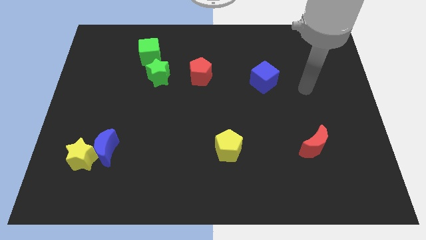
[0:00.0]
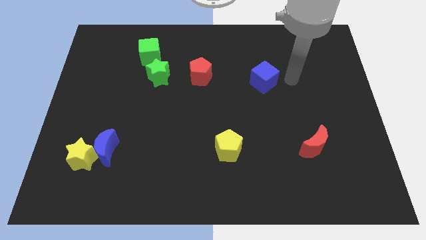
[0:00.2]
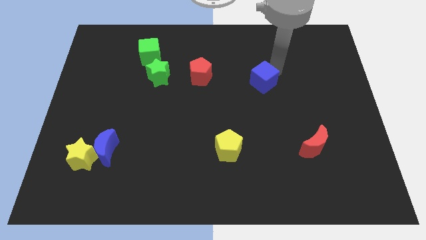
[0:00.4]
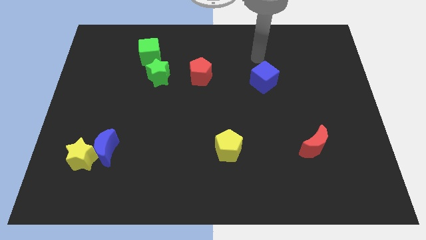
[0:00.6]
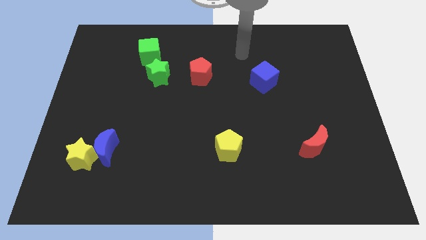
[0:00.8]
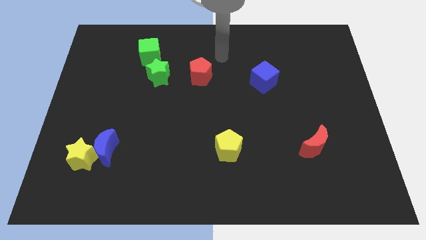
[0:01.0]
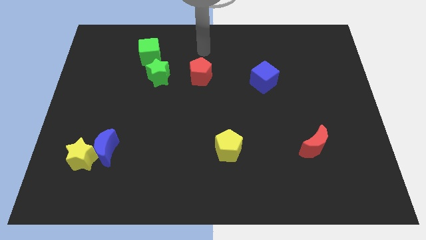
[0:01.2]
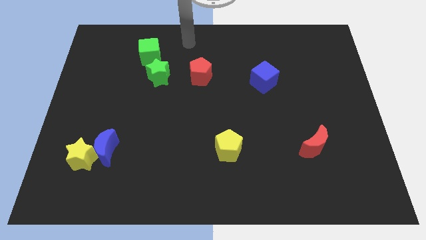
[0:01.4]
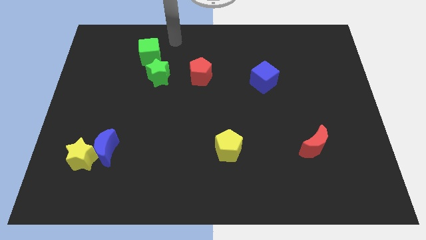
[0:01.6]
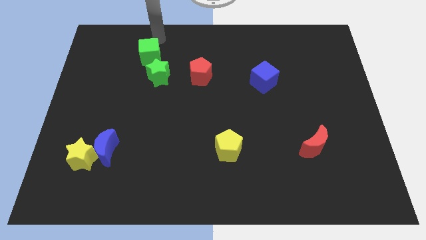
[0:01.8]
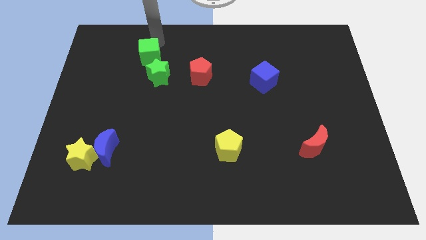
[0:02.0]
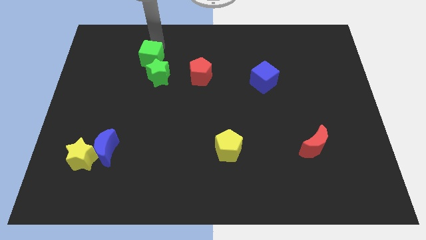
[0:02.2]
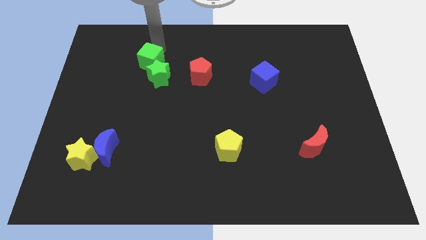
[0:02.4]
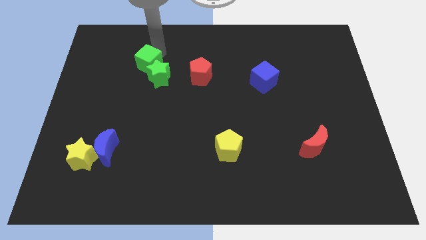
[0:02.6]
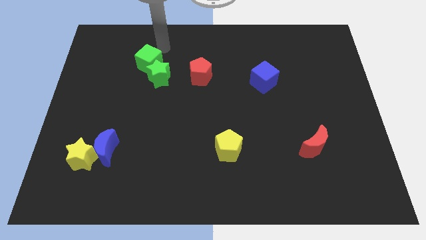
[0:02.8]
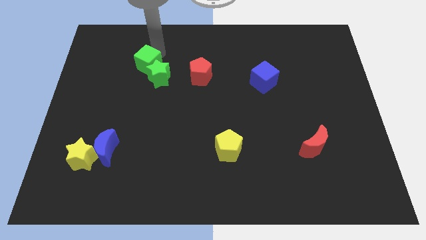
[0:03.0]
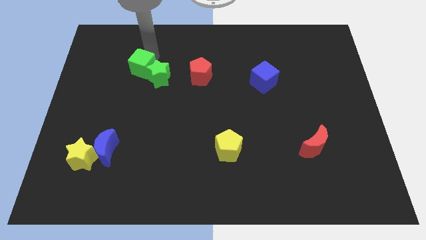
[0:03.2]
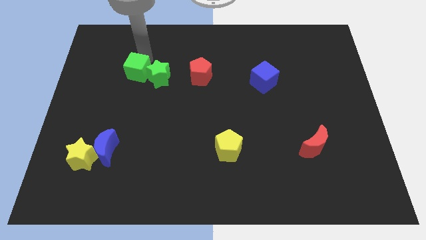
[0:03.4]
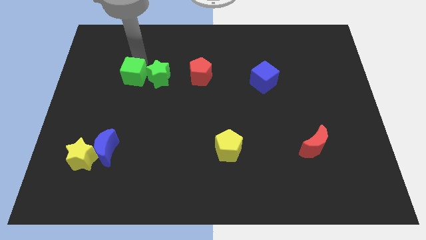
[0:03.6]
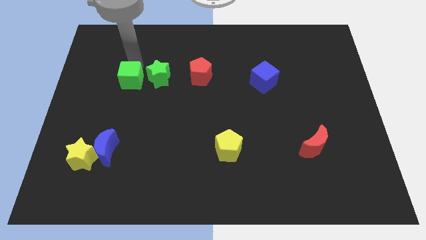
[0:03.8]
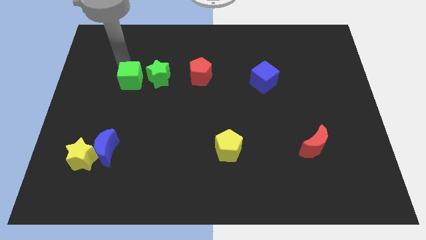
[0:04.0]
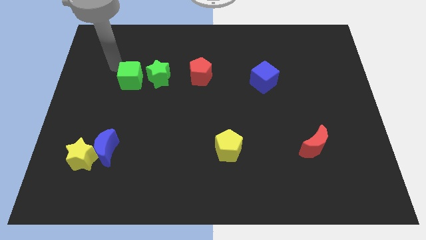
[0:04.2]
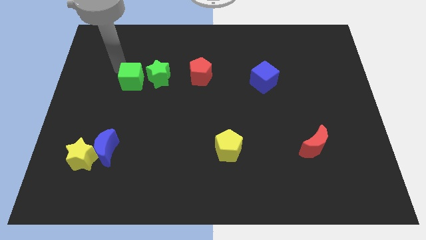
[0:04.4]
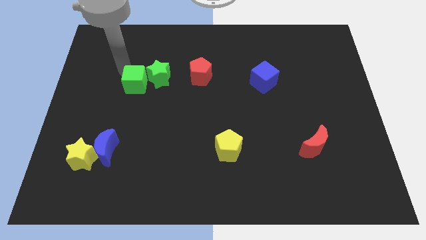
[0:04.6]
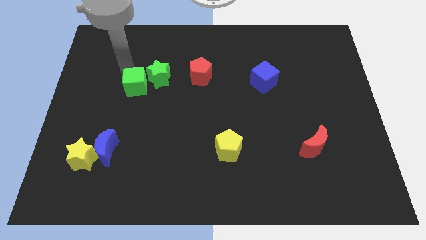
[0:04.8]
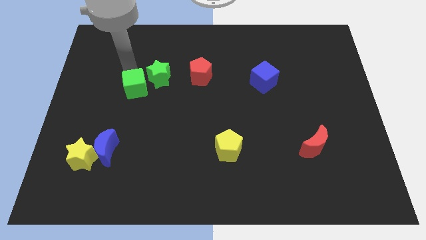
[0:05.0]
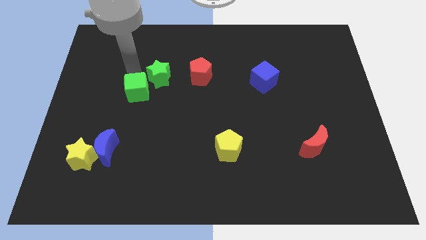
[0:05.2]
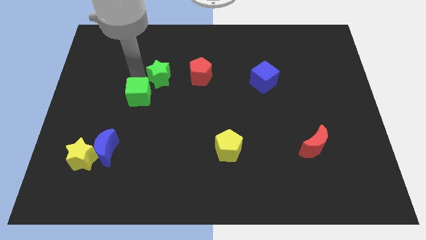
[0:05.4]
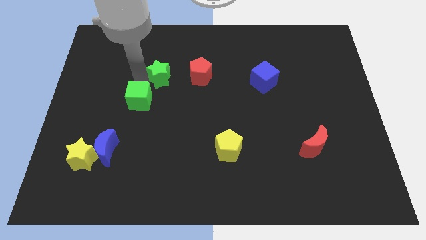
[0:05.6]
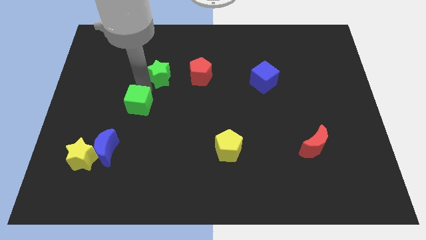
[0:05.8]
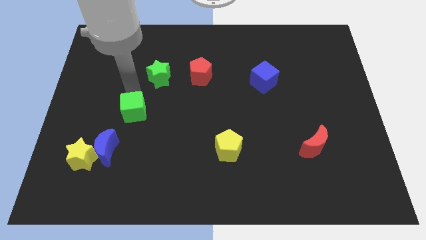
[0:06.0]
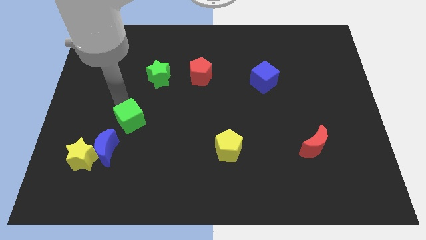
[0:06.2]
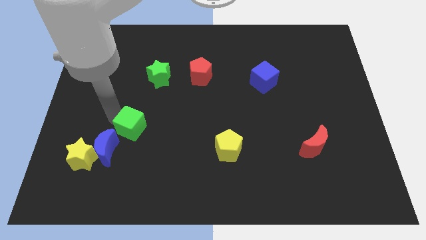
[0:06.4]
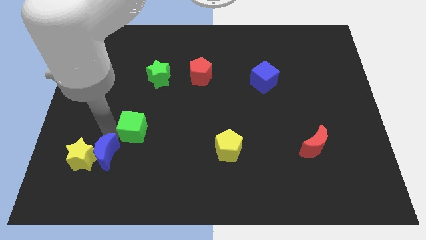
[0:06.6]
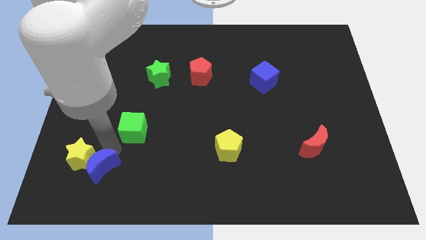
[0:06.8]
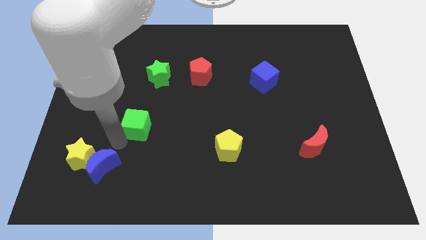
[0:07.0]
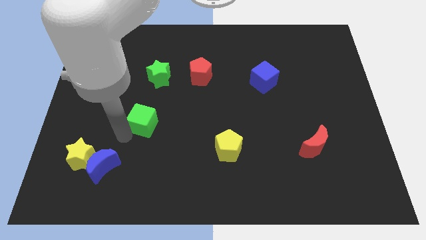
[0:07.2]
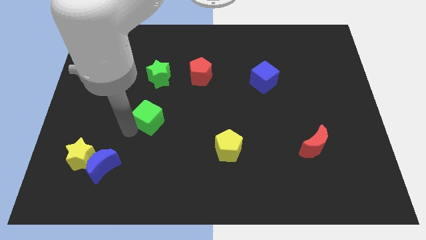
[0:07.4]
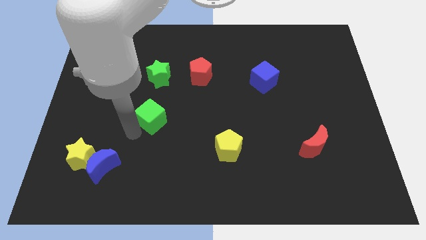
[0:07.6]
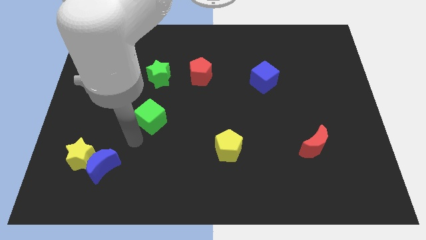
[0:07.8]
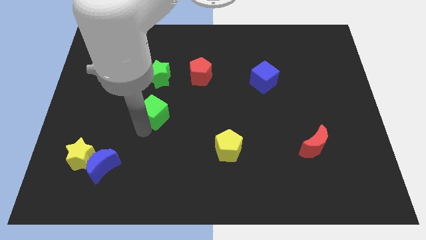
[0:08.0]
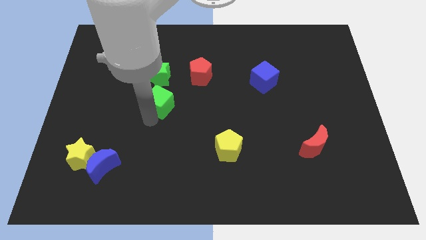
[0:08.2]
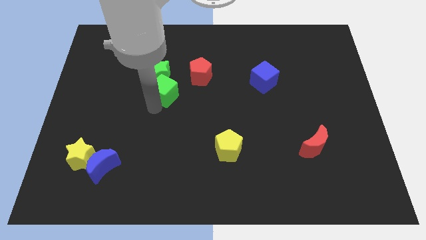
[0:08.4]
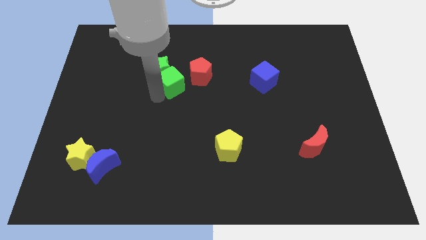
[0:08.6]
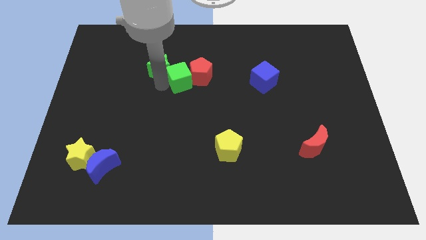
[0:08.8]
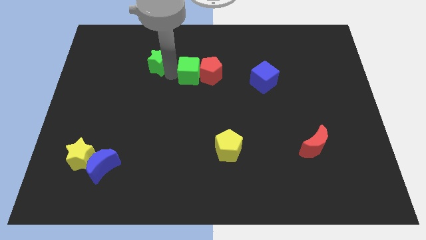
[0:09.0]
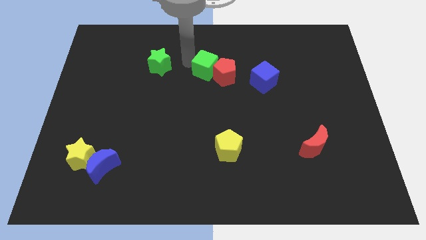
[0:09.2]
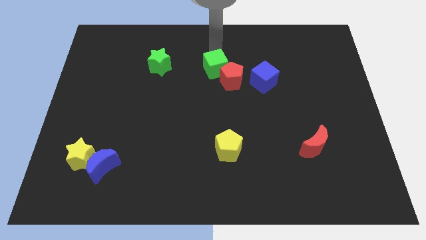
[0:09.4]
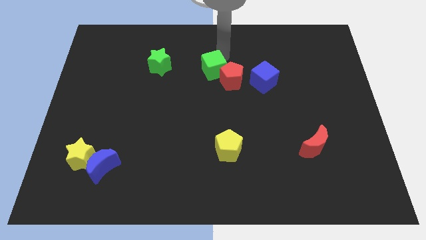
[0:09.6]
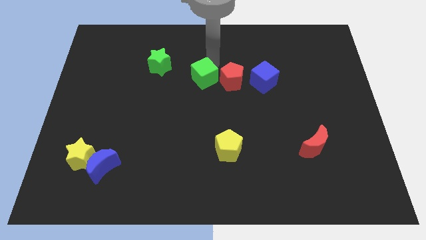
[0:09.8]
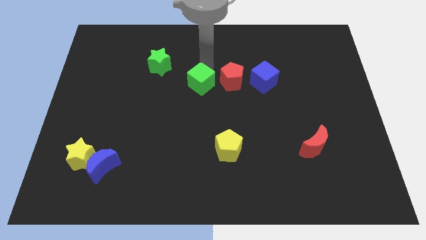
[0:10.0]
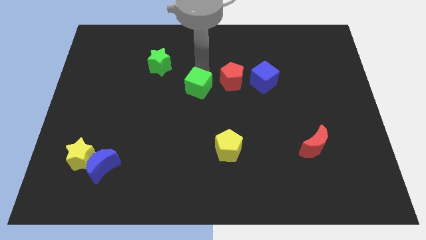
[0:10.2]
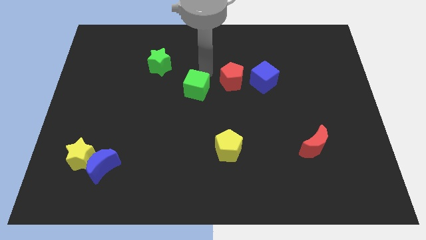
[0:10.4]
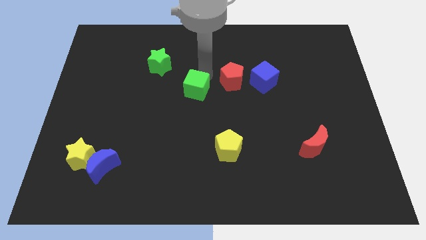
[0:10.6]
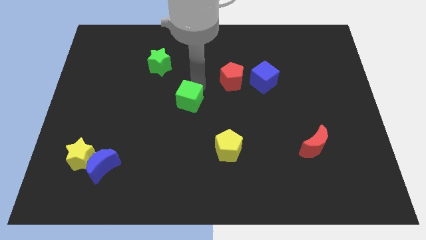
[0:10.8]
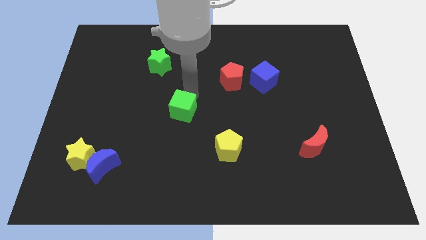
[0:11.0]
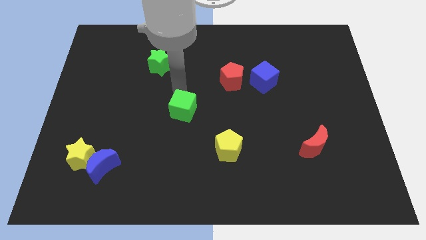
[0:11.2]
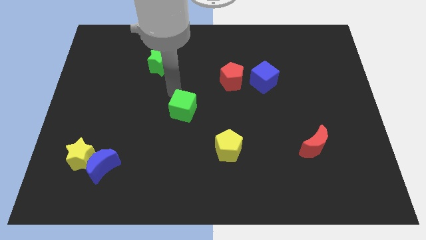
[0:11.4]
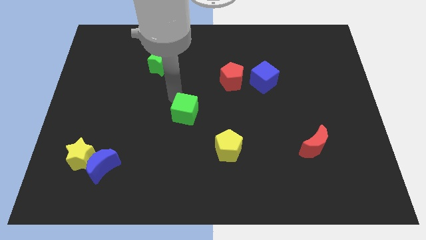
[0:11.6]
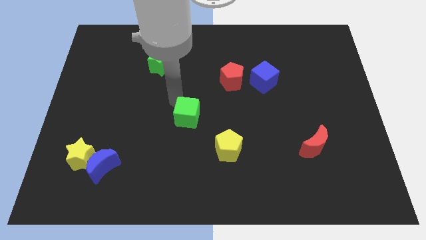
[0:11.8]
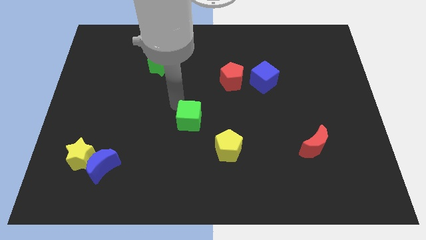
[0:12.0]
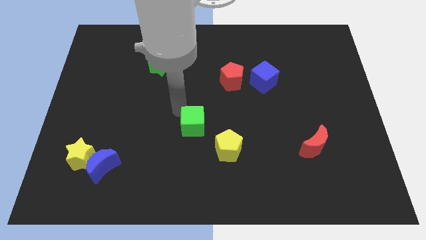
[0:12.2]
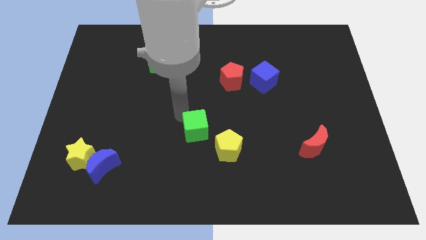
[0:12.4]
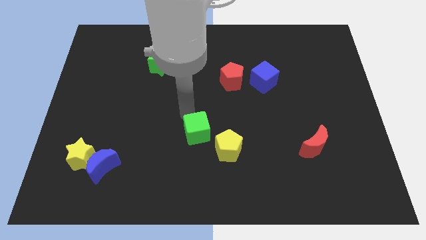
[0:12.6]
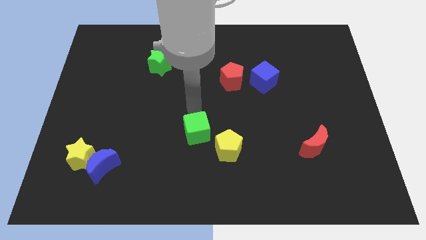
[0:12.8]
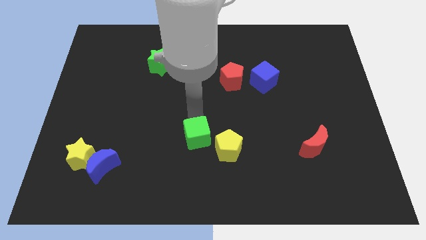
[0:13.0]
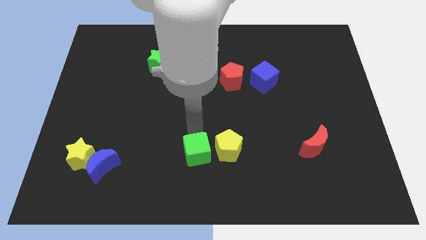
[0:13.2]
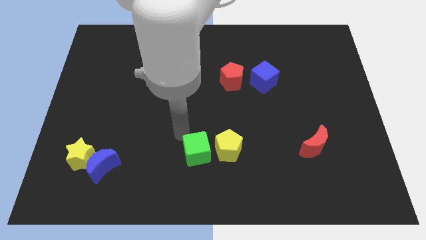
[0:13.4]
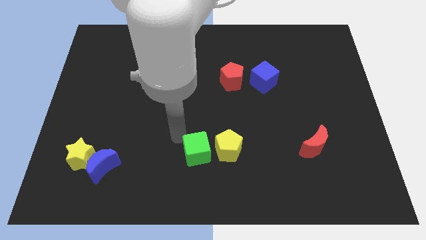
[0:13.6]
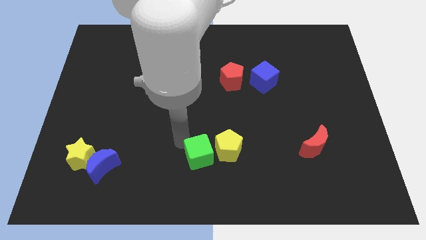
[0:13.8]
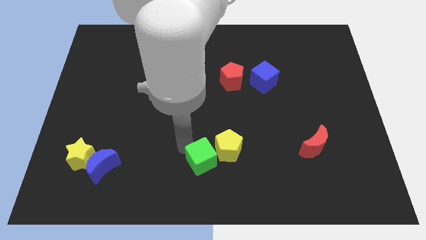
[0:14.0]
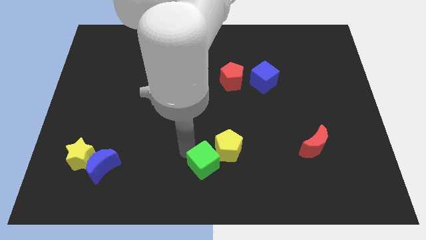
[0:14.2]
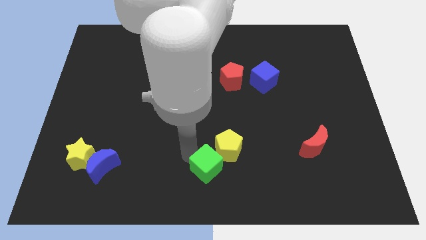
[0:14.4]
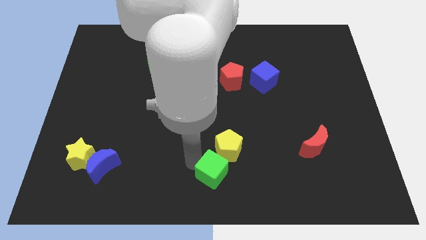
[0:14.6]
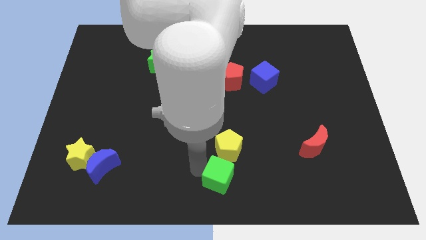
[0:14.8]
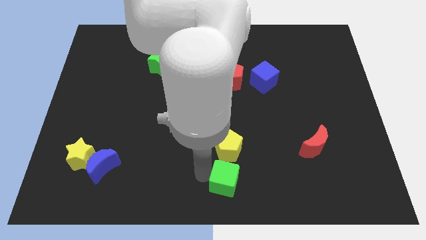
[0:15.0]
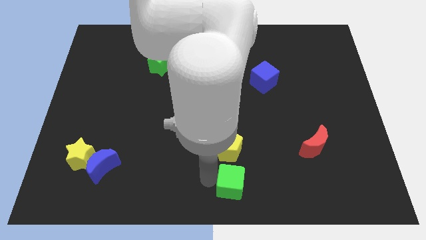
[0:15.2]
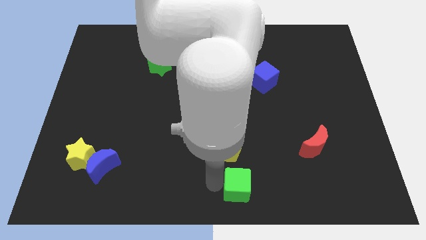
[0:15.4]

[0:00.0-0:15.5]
put the green cube to the bottom right side of the yellow pentagon
